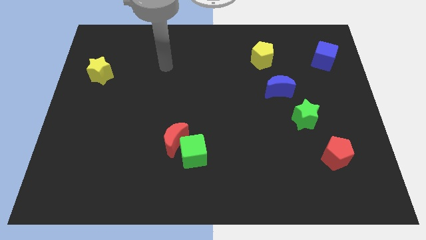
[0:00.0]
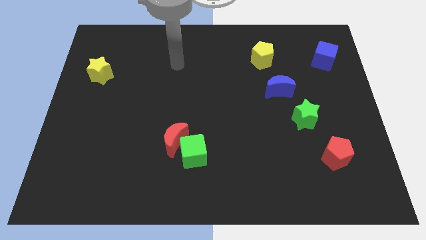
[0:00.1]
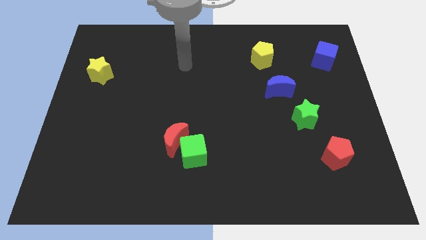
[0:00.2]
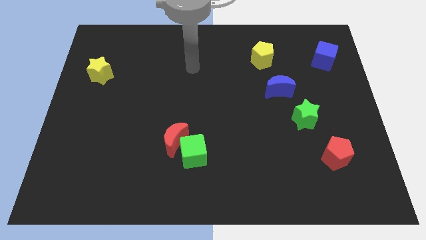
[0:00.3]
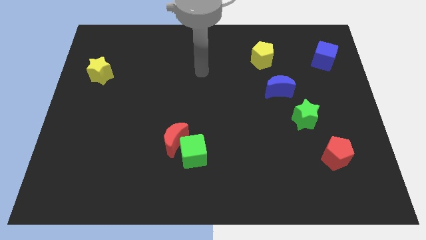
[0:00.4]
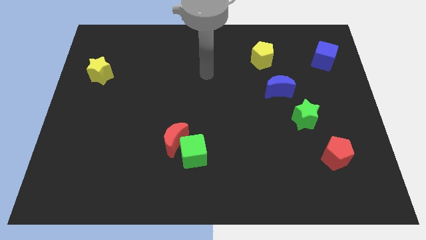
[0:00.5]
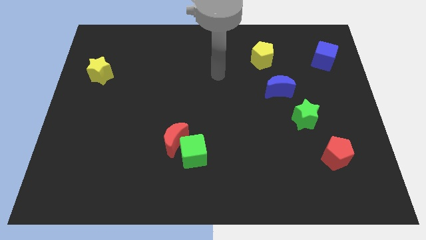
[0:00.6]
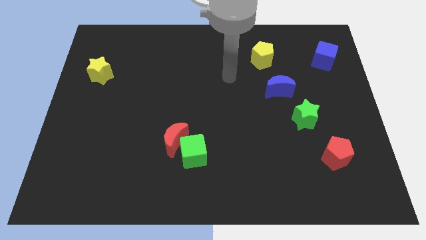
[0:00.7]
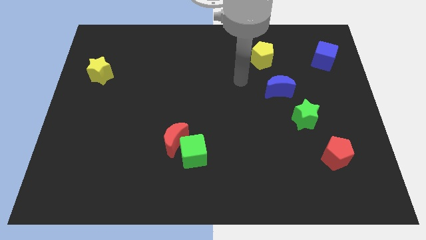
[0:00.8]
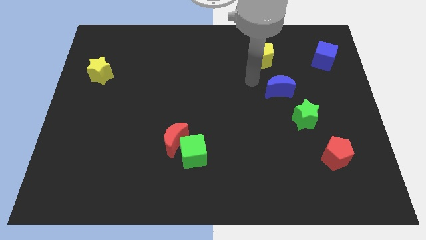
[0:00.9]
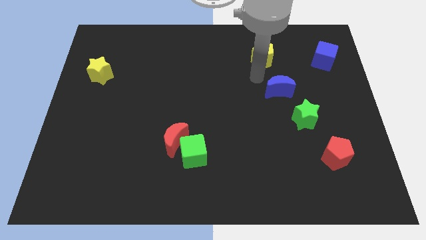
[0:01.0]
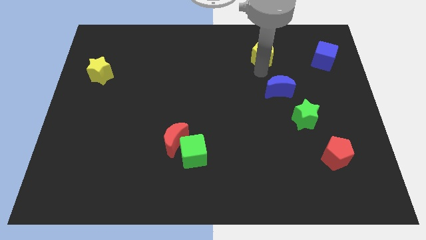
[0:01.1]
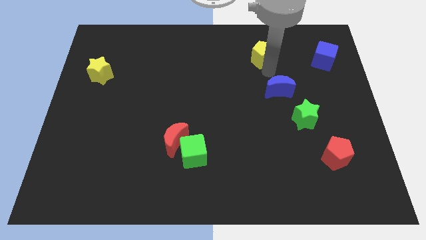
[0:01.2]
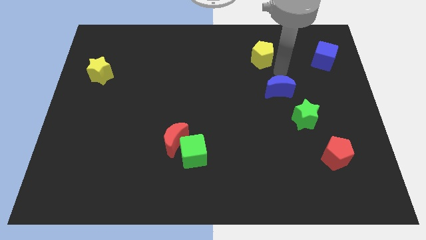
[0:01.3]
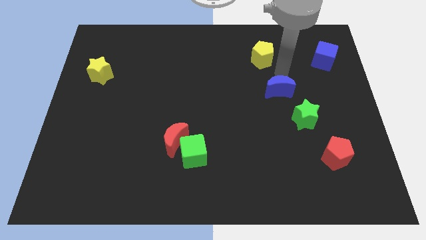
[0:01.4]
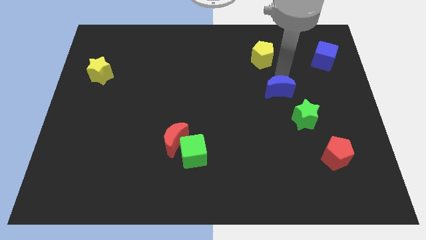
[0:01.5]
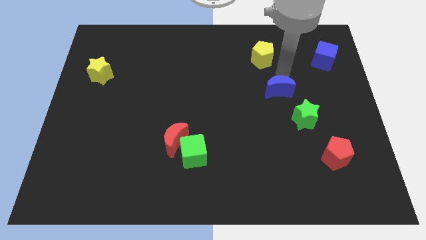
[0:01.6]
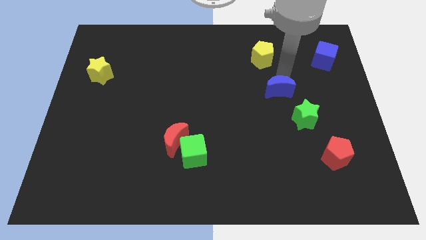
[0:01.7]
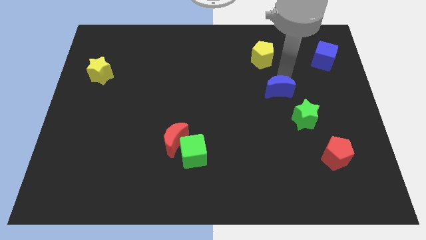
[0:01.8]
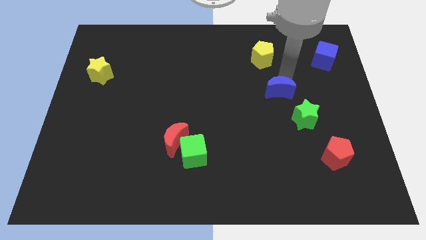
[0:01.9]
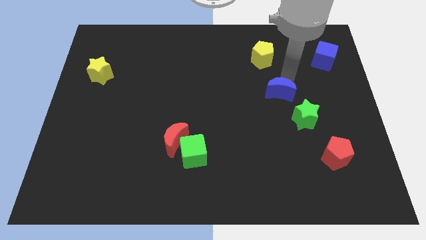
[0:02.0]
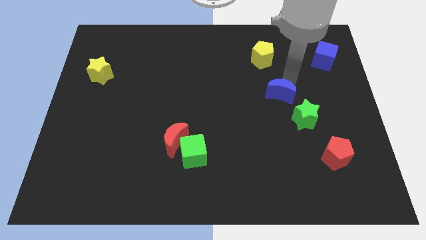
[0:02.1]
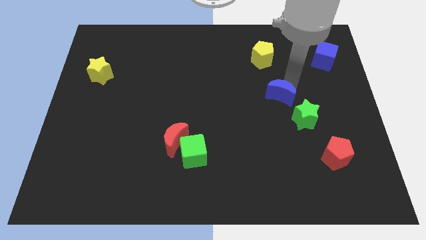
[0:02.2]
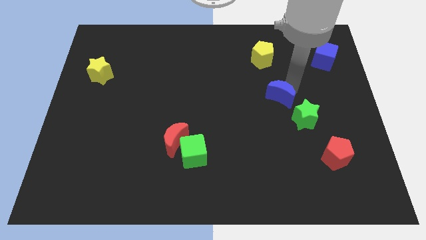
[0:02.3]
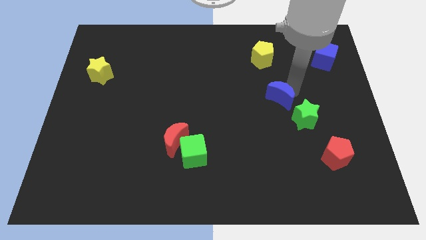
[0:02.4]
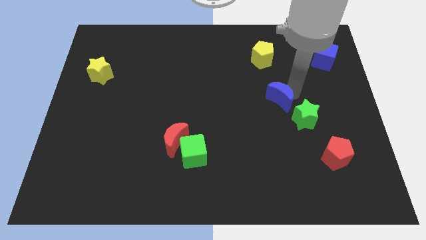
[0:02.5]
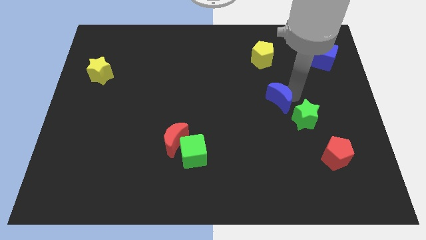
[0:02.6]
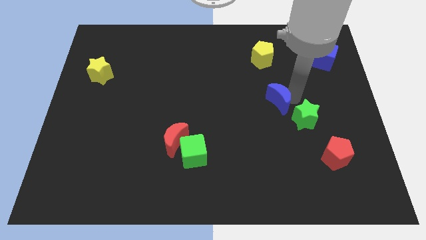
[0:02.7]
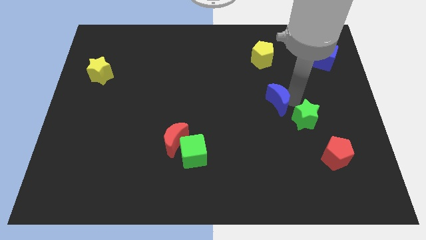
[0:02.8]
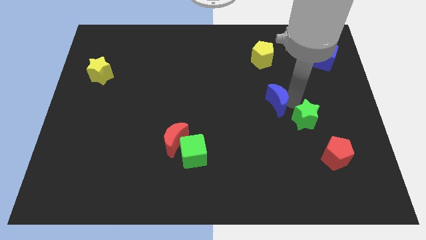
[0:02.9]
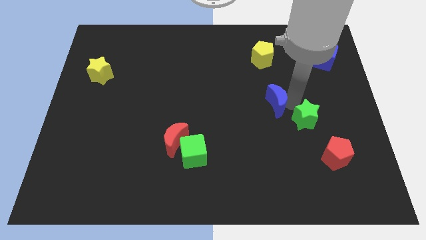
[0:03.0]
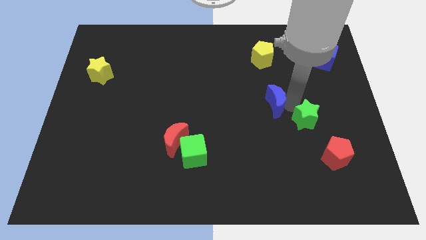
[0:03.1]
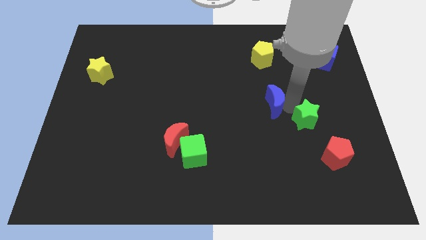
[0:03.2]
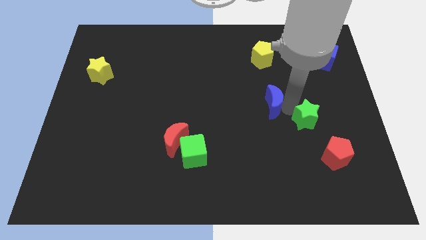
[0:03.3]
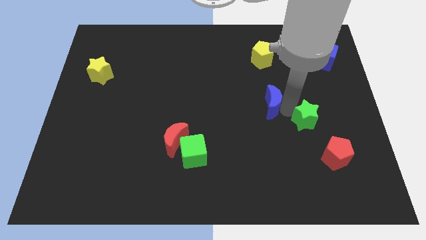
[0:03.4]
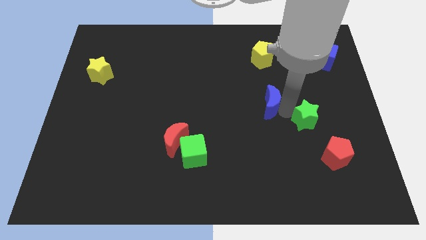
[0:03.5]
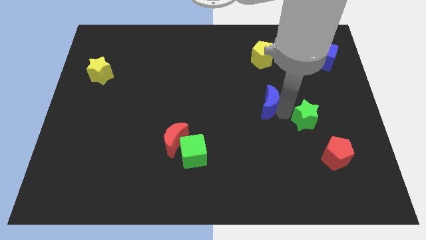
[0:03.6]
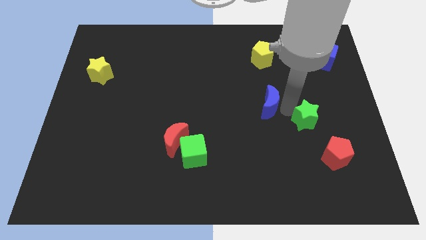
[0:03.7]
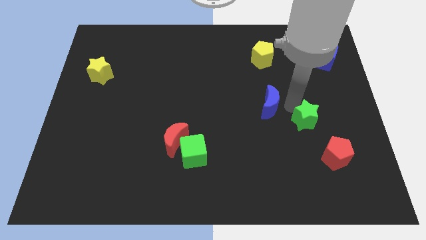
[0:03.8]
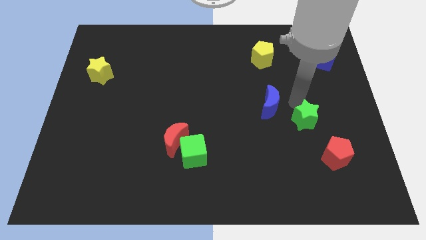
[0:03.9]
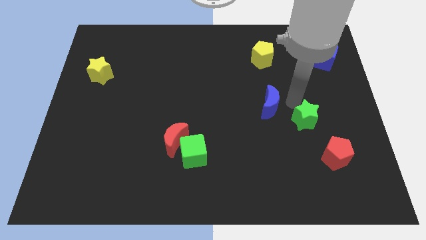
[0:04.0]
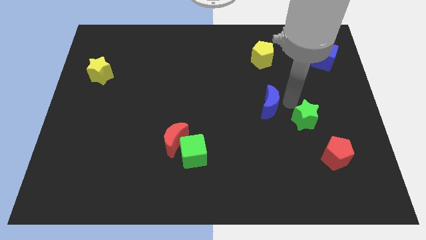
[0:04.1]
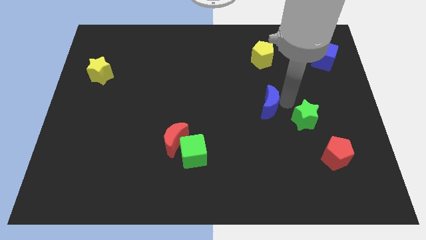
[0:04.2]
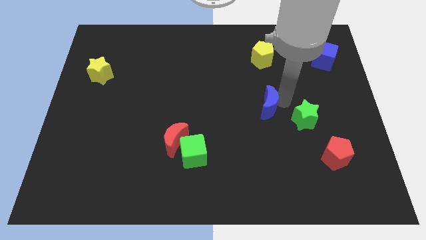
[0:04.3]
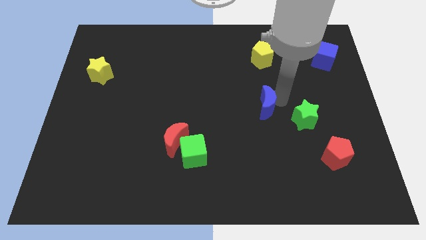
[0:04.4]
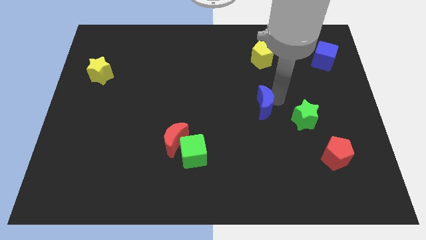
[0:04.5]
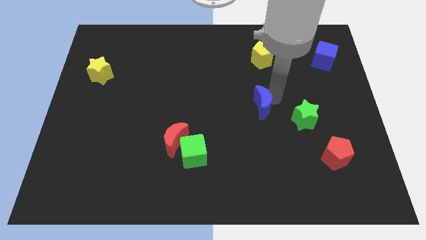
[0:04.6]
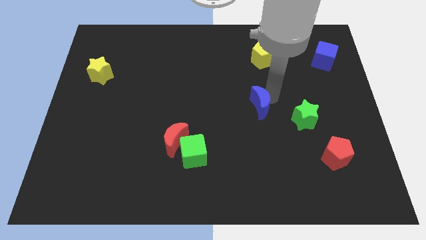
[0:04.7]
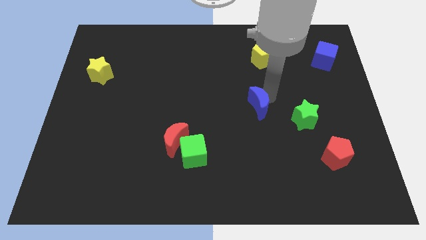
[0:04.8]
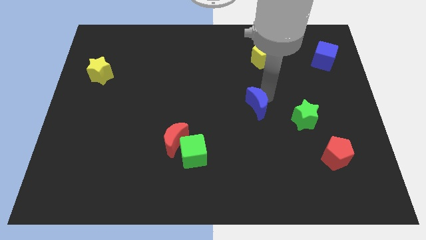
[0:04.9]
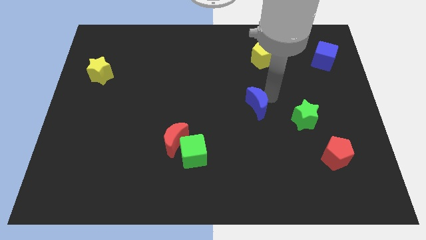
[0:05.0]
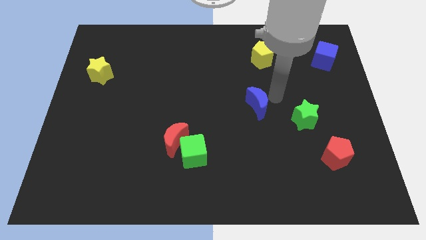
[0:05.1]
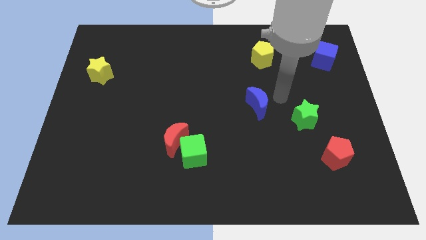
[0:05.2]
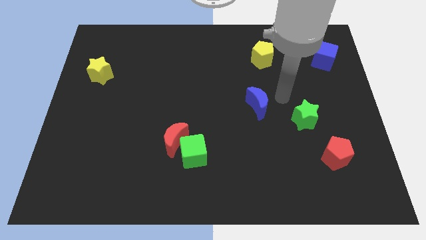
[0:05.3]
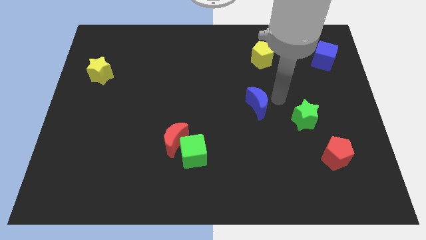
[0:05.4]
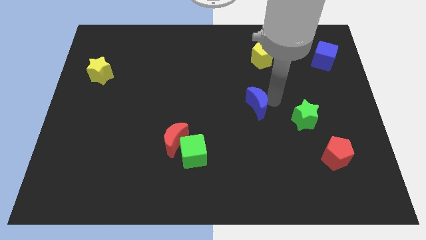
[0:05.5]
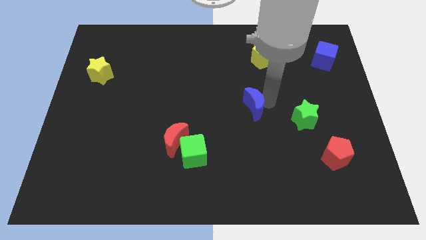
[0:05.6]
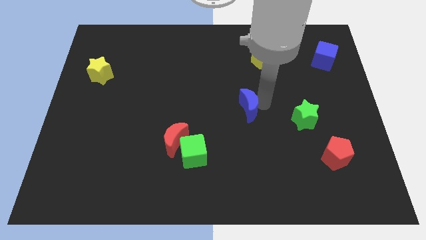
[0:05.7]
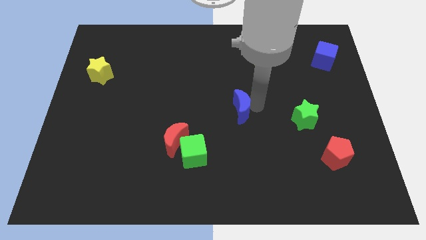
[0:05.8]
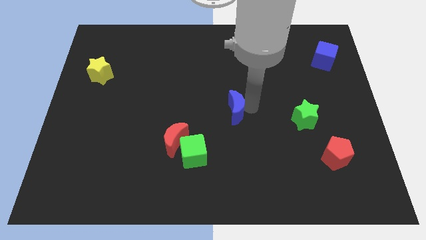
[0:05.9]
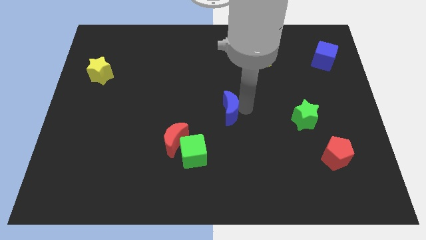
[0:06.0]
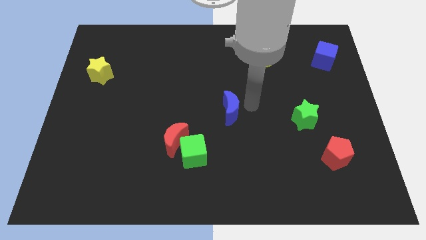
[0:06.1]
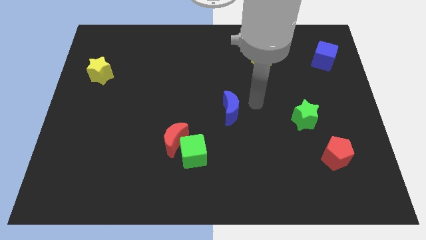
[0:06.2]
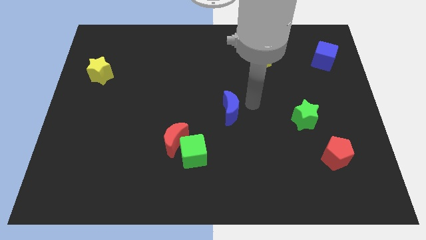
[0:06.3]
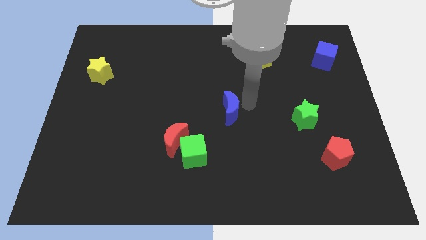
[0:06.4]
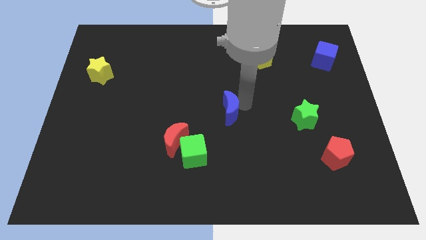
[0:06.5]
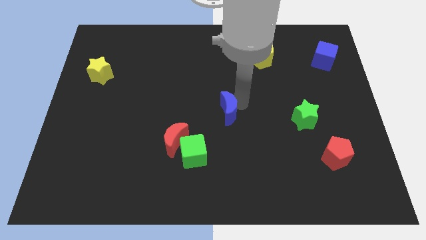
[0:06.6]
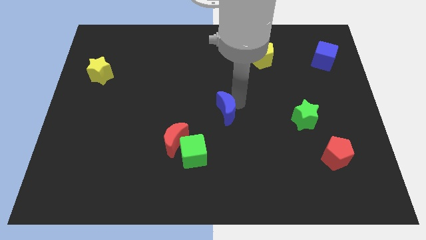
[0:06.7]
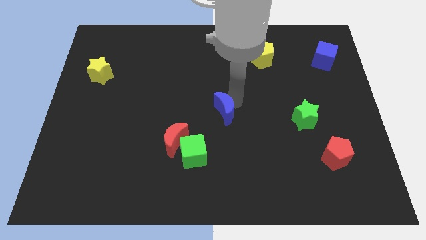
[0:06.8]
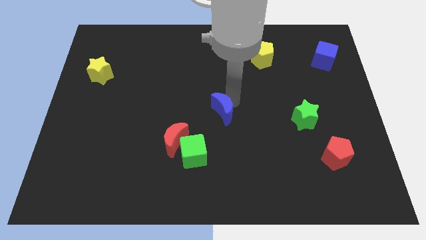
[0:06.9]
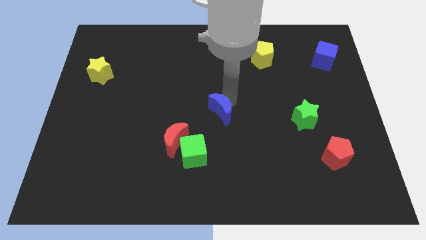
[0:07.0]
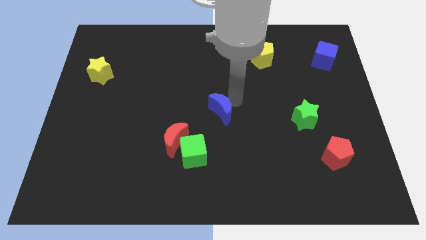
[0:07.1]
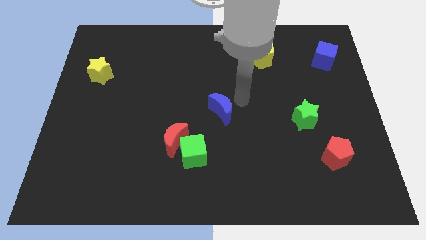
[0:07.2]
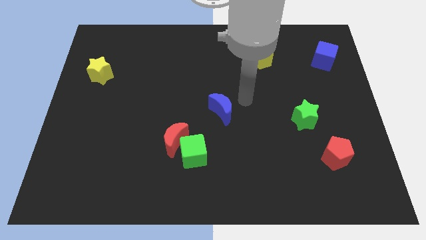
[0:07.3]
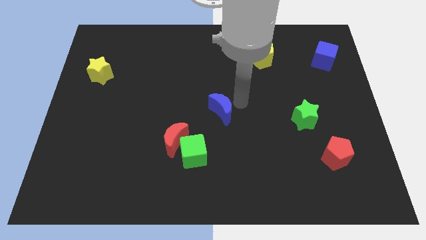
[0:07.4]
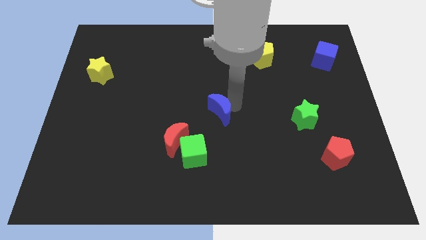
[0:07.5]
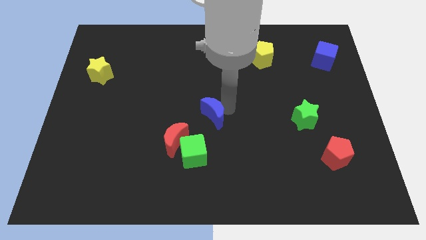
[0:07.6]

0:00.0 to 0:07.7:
slide the blue moon diagonally up and to the right of the red moon

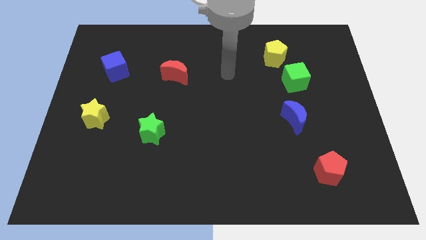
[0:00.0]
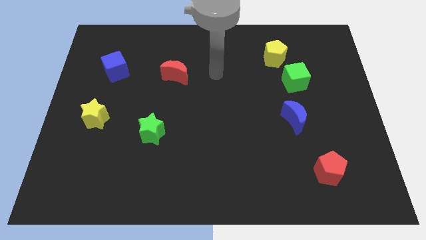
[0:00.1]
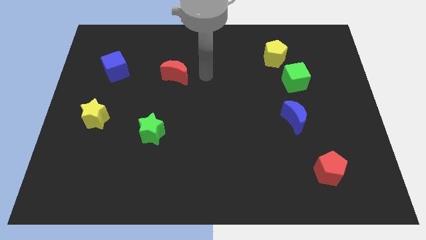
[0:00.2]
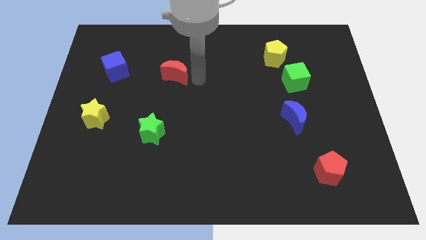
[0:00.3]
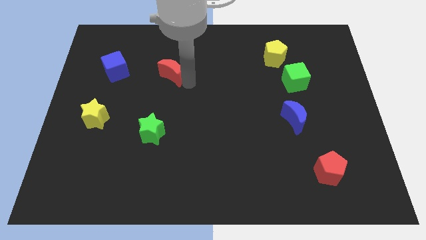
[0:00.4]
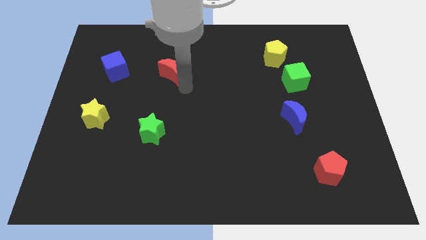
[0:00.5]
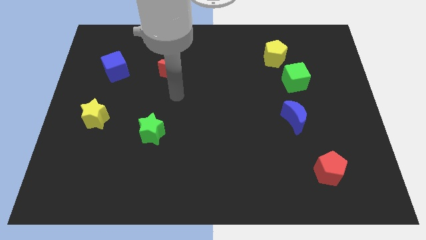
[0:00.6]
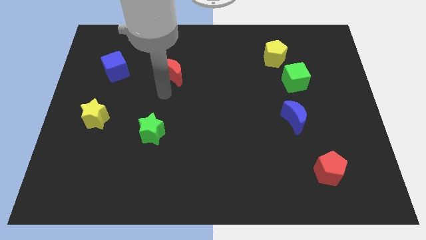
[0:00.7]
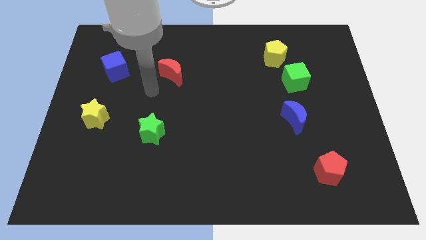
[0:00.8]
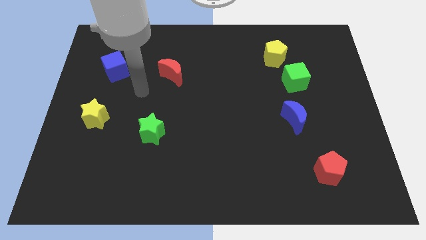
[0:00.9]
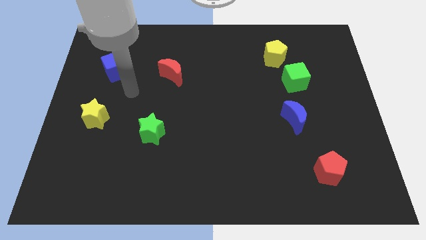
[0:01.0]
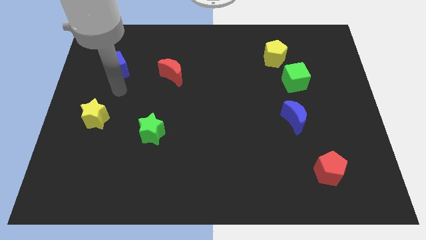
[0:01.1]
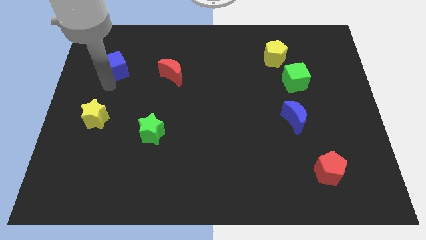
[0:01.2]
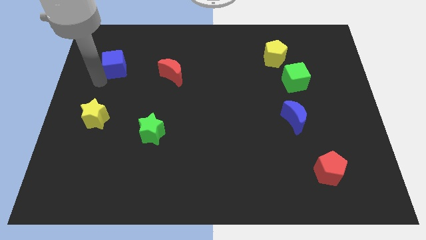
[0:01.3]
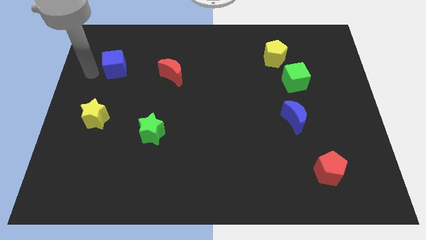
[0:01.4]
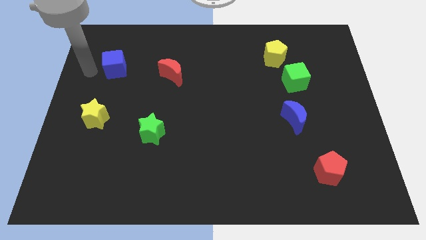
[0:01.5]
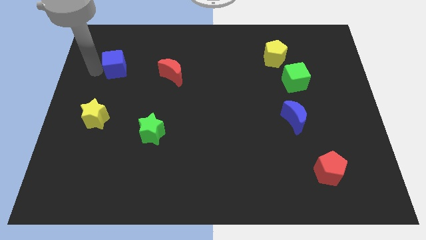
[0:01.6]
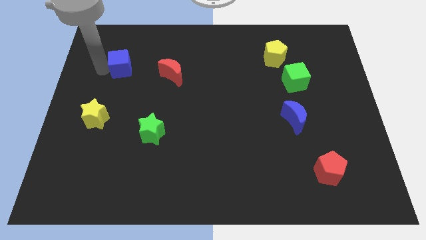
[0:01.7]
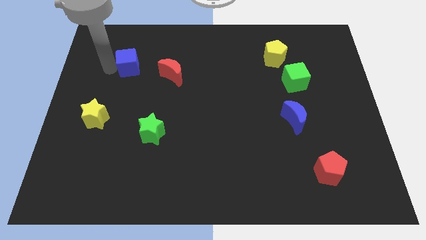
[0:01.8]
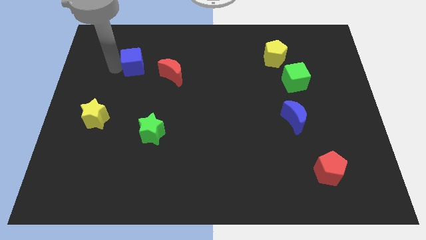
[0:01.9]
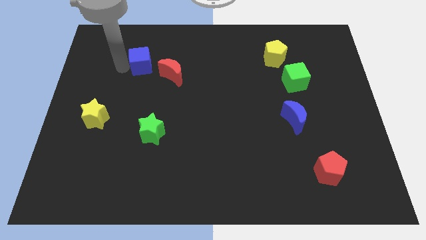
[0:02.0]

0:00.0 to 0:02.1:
slide the blue cube to the top left of the red moon
